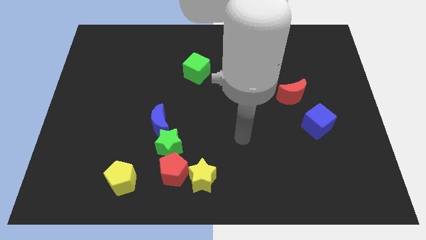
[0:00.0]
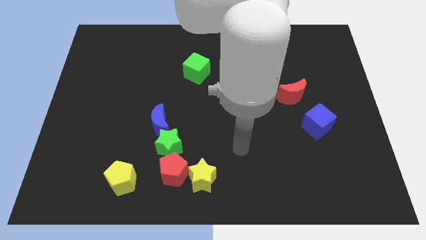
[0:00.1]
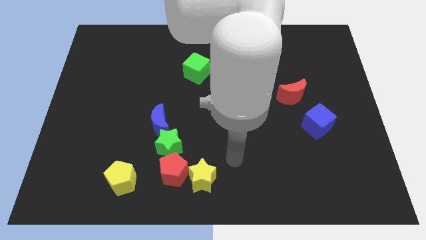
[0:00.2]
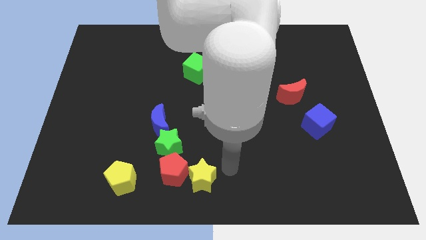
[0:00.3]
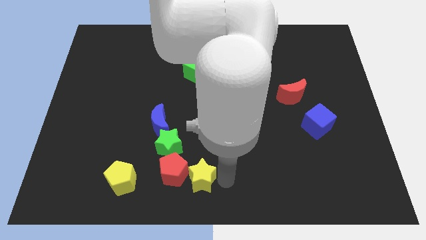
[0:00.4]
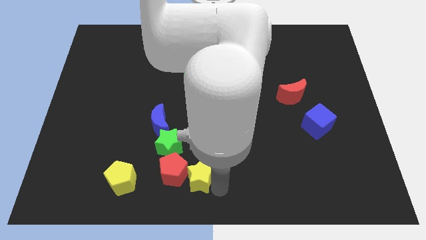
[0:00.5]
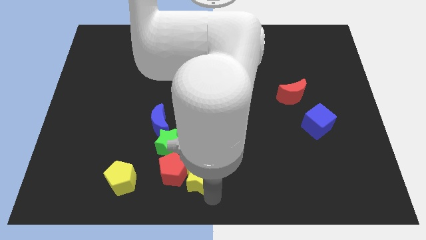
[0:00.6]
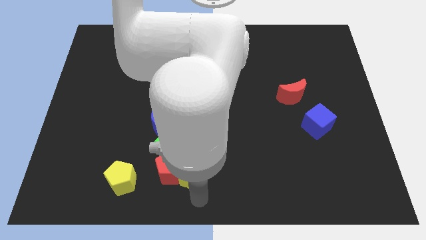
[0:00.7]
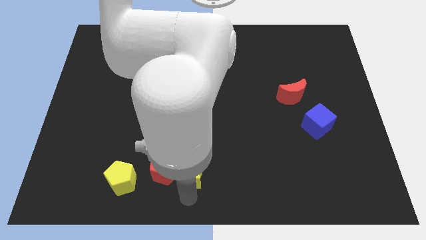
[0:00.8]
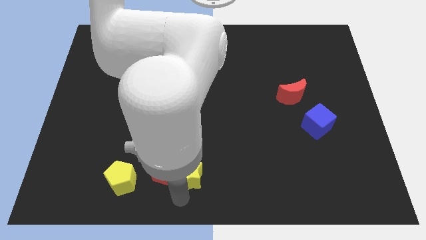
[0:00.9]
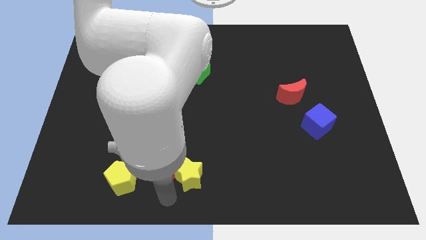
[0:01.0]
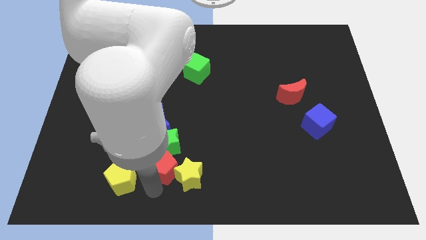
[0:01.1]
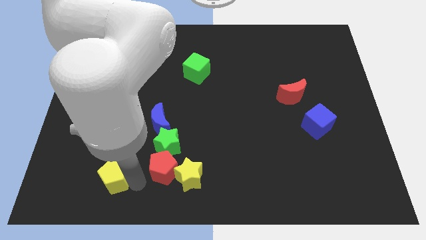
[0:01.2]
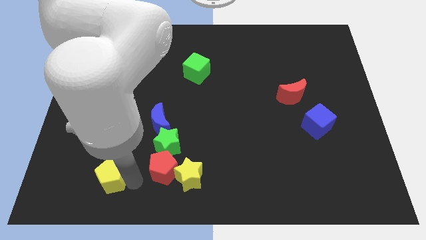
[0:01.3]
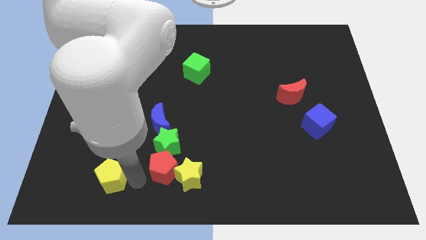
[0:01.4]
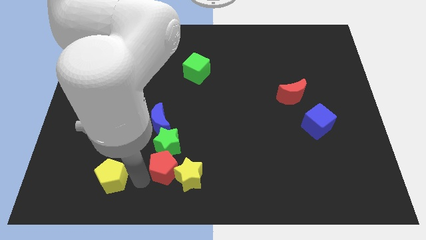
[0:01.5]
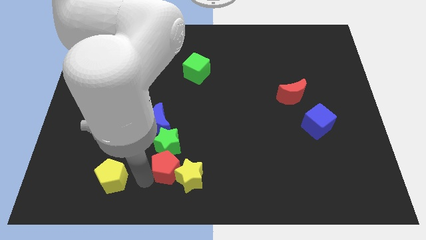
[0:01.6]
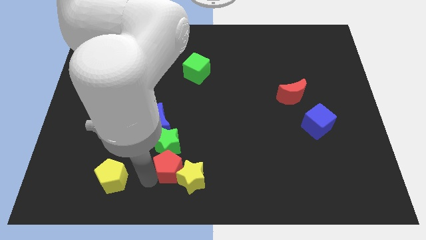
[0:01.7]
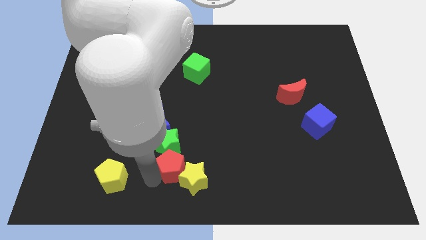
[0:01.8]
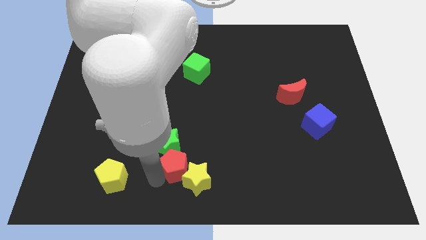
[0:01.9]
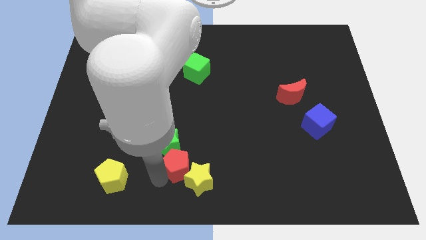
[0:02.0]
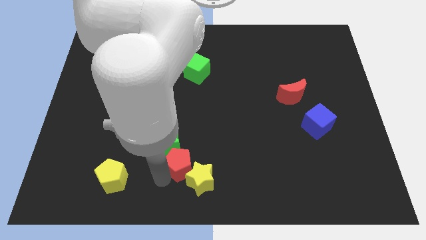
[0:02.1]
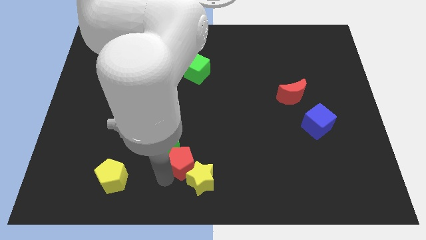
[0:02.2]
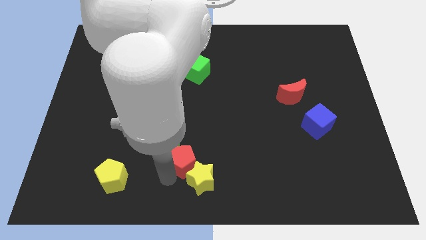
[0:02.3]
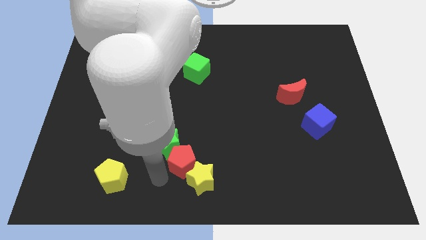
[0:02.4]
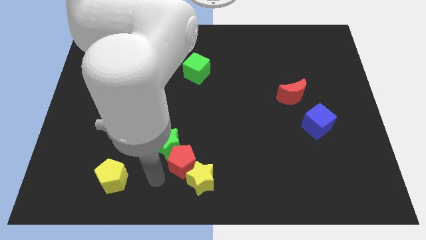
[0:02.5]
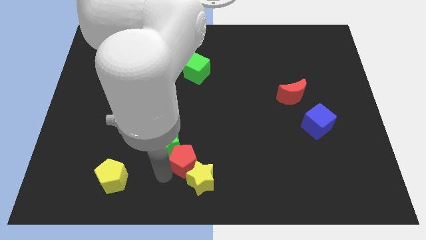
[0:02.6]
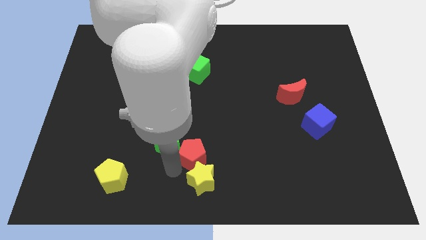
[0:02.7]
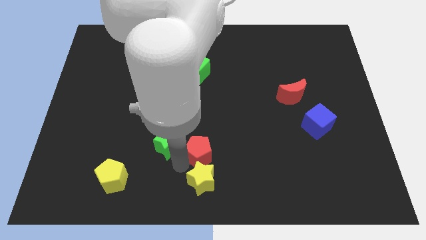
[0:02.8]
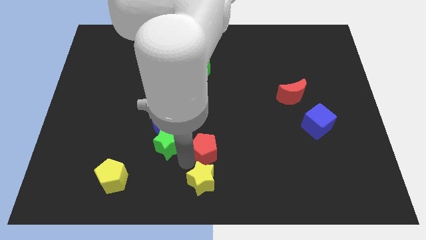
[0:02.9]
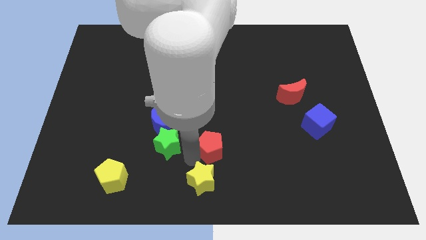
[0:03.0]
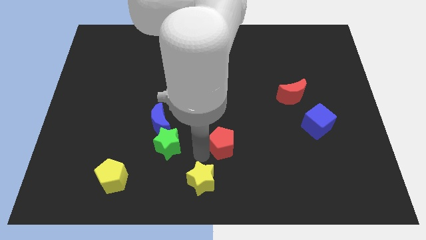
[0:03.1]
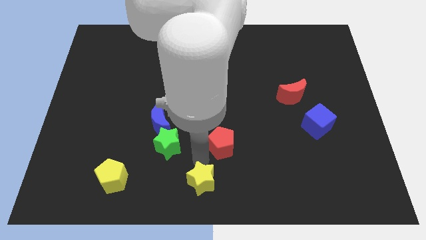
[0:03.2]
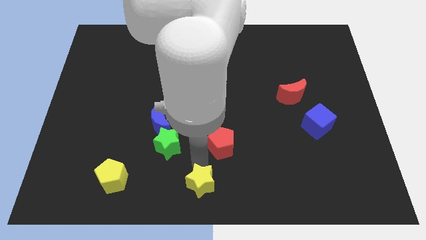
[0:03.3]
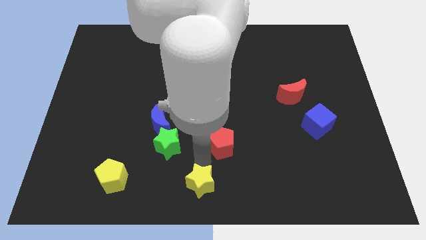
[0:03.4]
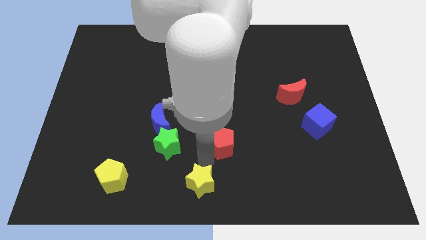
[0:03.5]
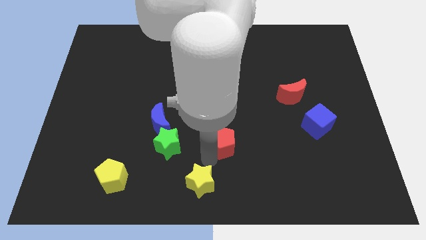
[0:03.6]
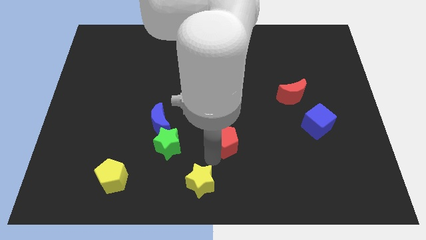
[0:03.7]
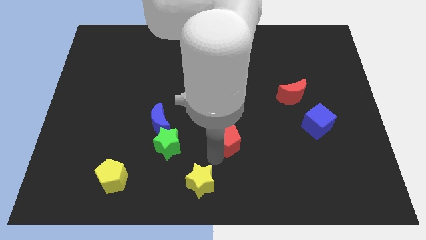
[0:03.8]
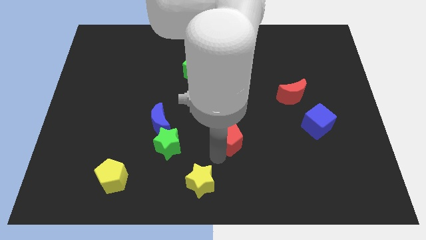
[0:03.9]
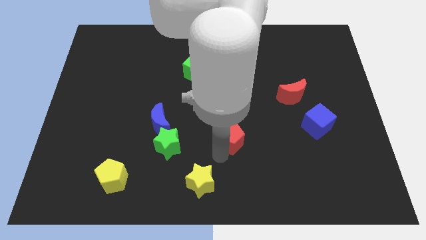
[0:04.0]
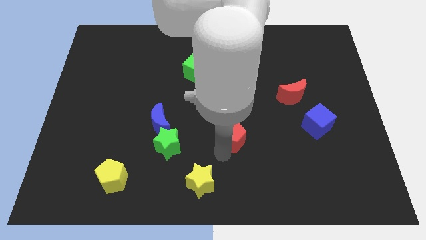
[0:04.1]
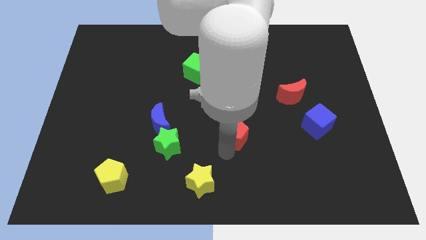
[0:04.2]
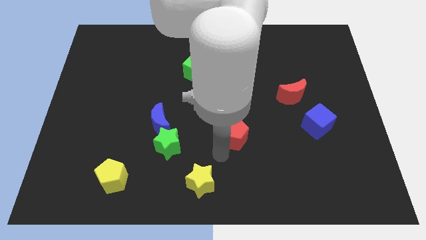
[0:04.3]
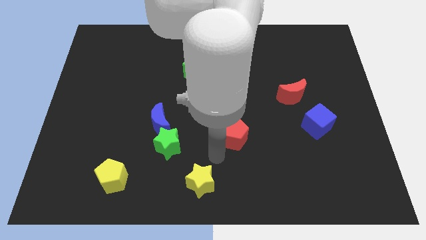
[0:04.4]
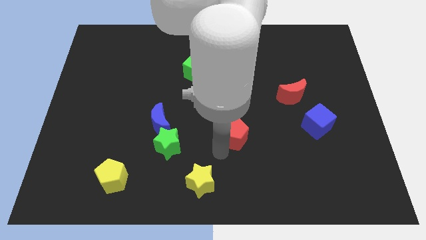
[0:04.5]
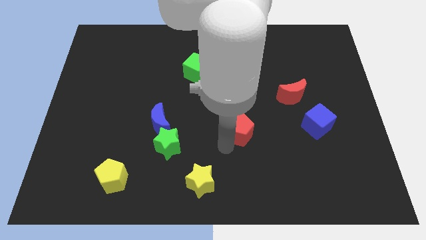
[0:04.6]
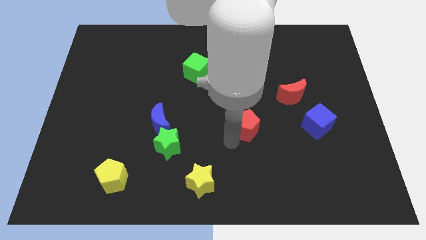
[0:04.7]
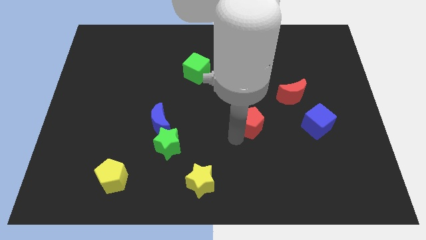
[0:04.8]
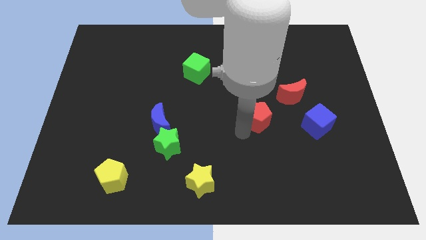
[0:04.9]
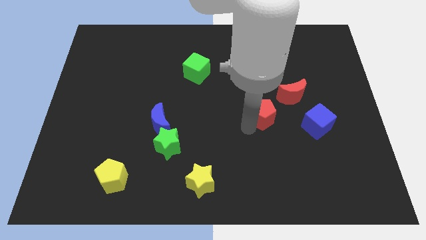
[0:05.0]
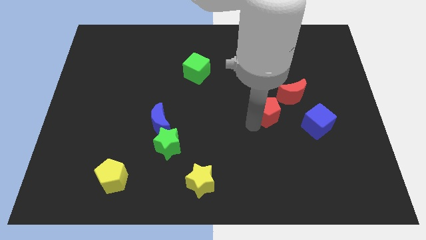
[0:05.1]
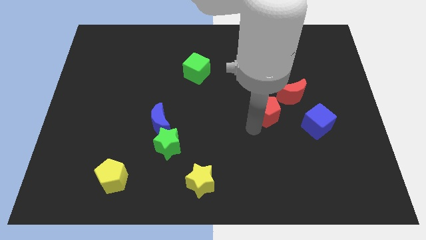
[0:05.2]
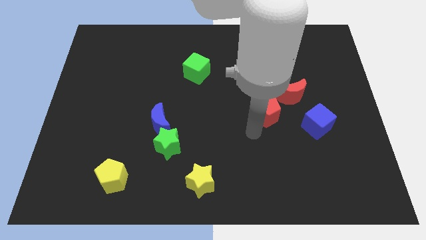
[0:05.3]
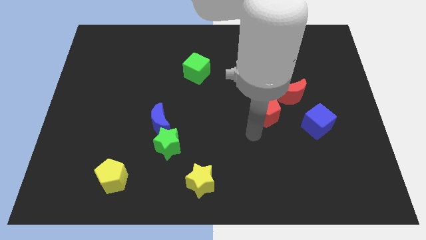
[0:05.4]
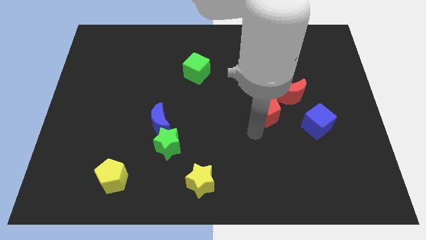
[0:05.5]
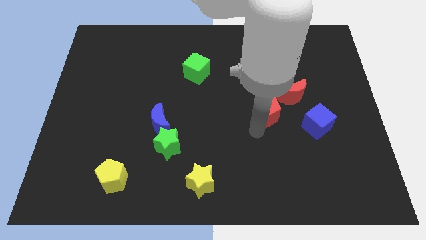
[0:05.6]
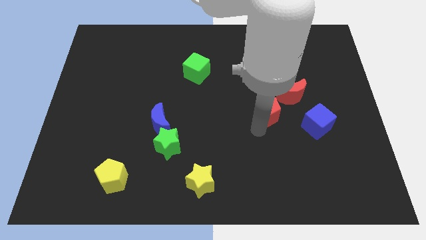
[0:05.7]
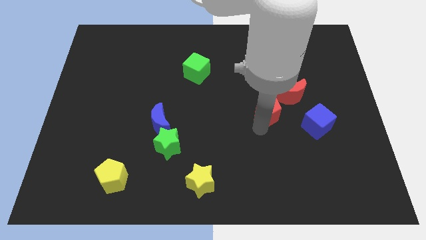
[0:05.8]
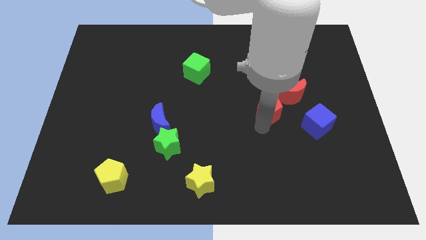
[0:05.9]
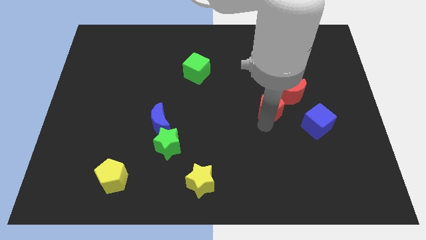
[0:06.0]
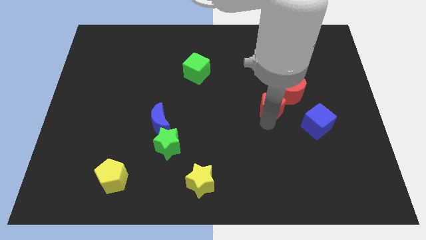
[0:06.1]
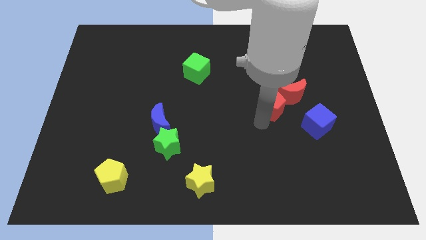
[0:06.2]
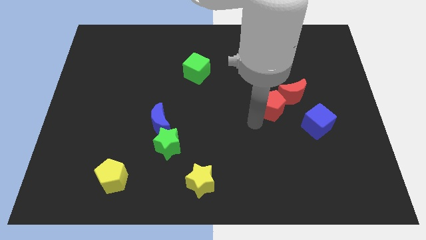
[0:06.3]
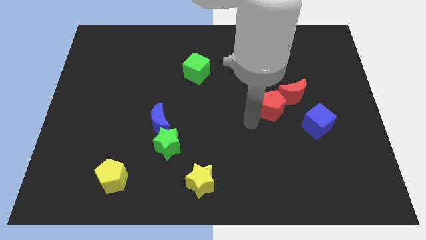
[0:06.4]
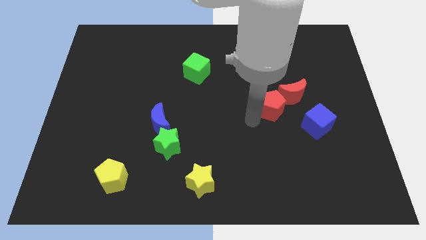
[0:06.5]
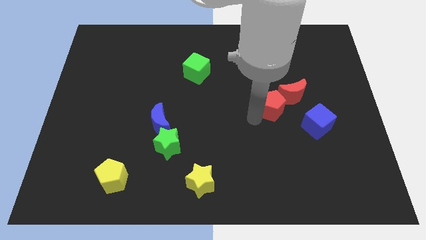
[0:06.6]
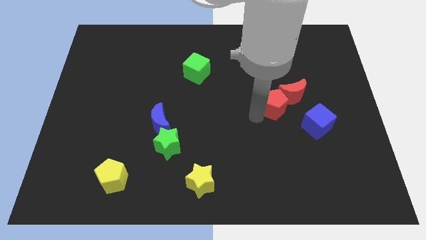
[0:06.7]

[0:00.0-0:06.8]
slide the red pentagon next to the red moon

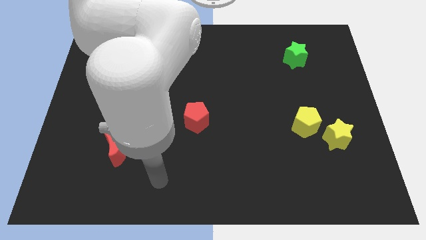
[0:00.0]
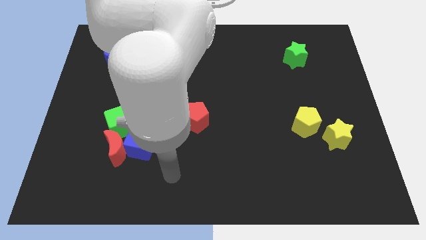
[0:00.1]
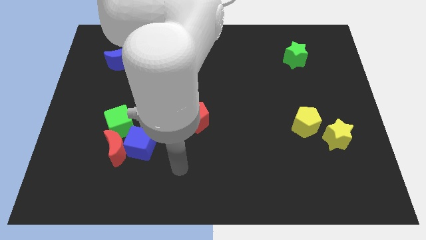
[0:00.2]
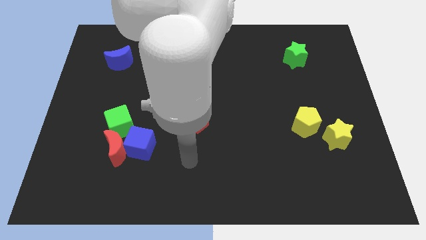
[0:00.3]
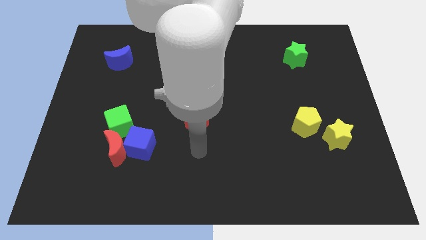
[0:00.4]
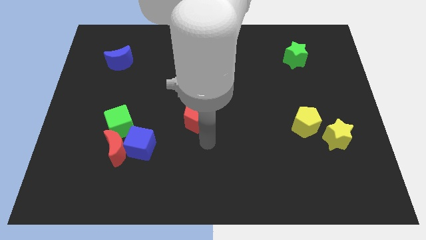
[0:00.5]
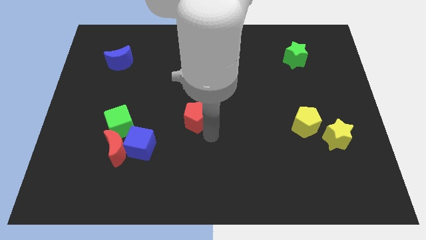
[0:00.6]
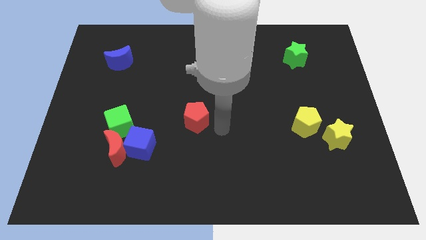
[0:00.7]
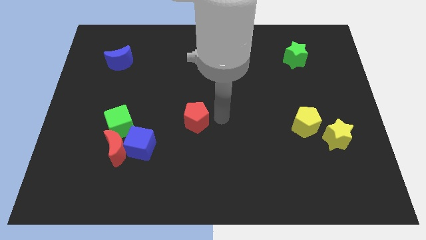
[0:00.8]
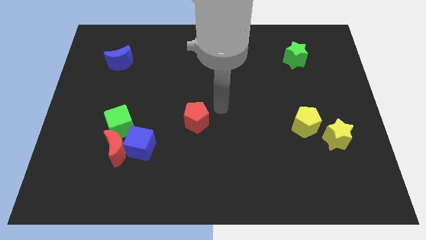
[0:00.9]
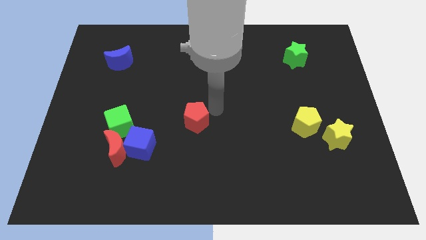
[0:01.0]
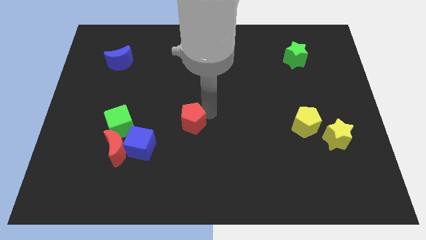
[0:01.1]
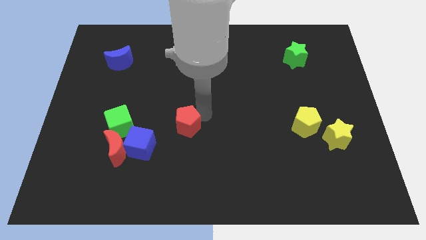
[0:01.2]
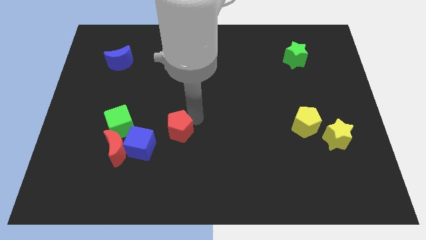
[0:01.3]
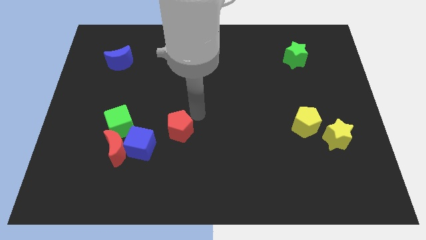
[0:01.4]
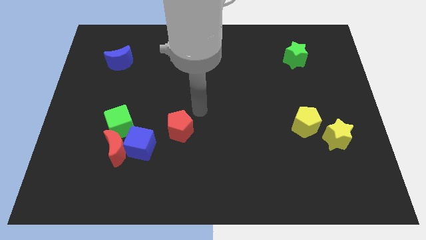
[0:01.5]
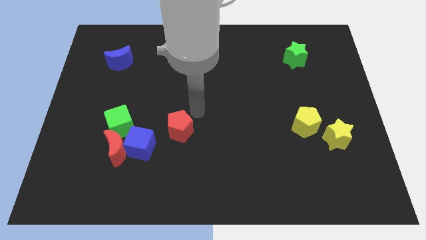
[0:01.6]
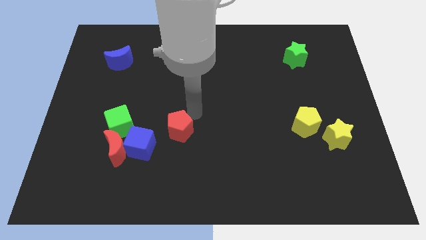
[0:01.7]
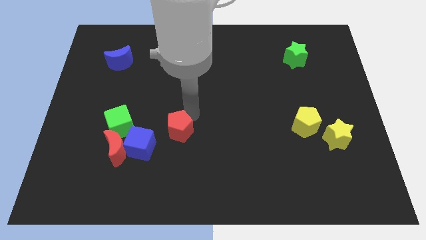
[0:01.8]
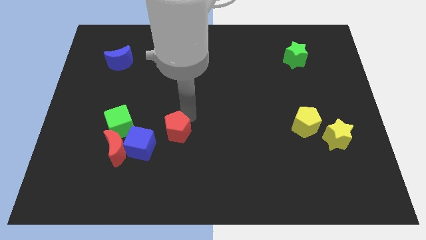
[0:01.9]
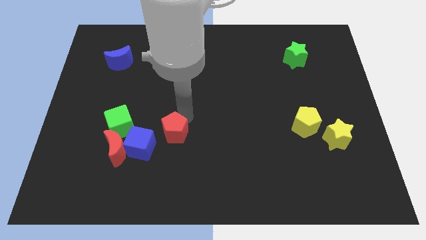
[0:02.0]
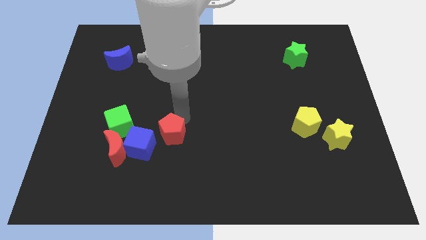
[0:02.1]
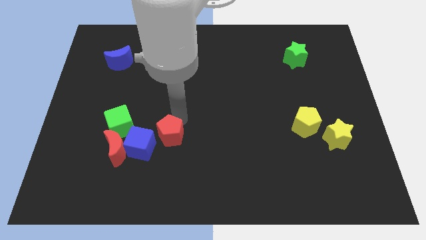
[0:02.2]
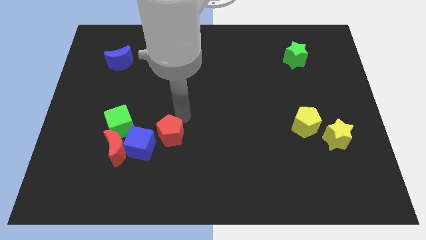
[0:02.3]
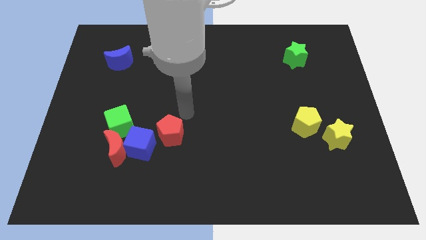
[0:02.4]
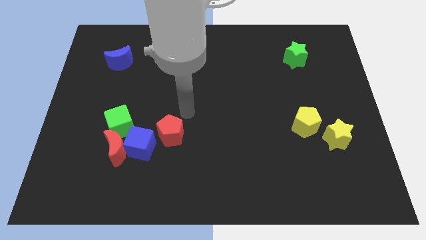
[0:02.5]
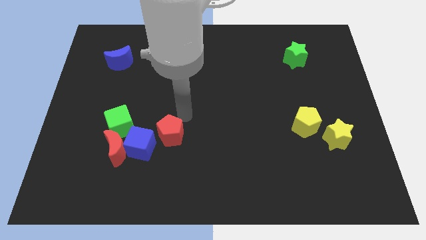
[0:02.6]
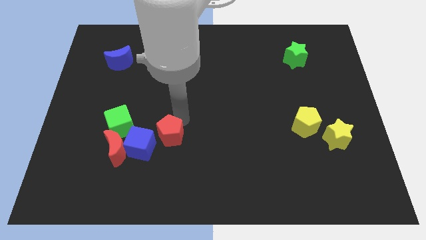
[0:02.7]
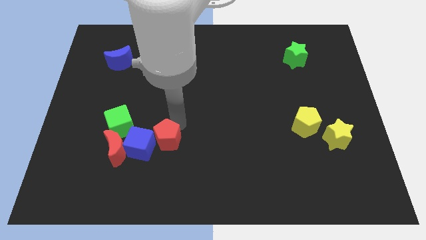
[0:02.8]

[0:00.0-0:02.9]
push the red pentagon next to the blue cube
